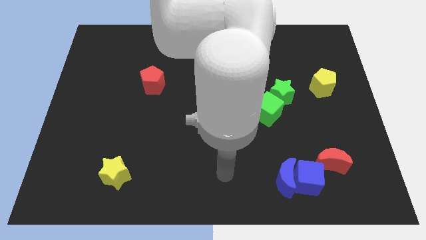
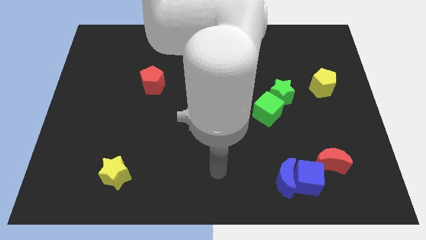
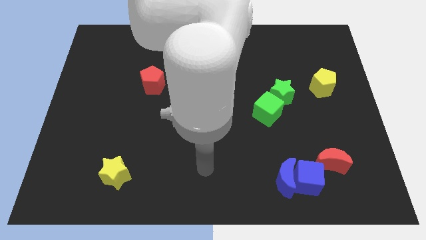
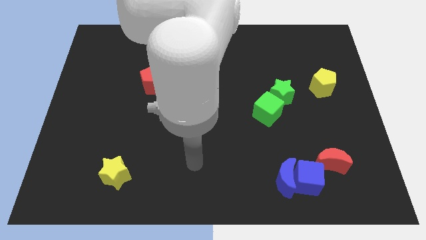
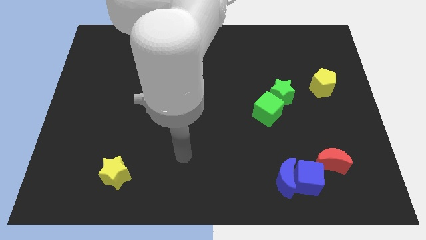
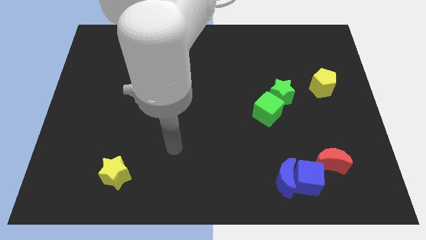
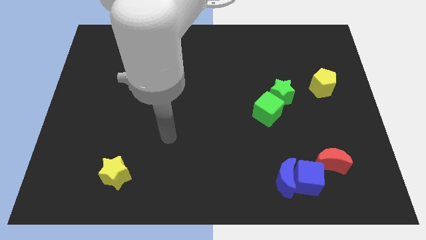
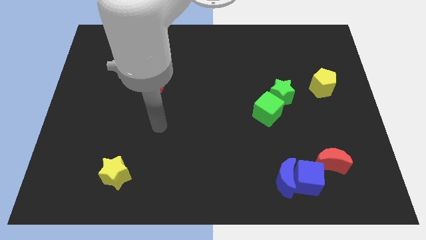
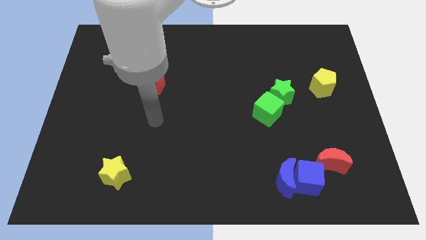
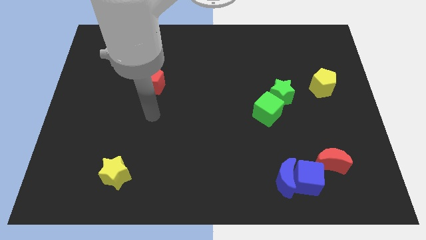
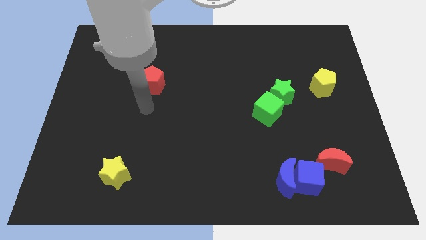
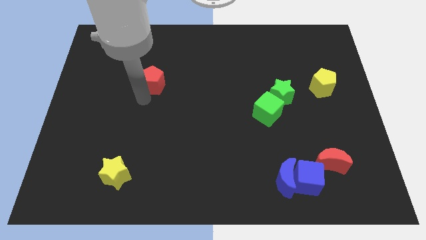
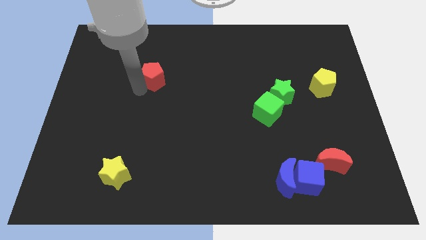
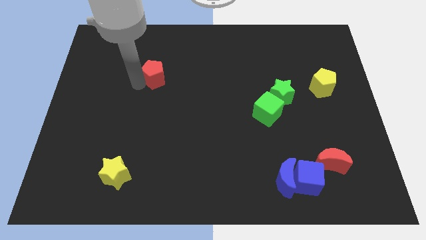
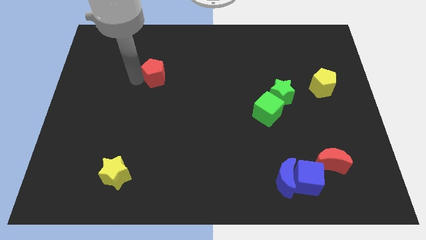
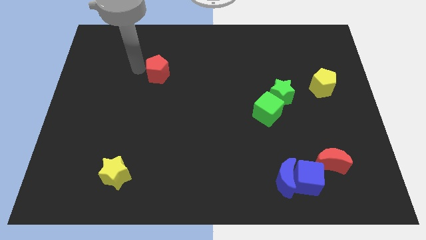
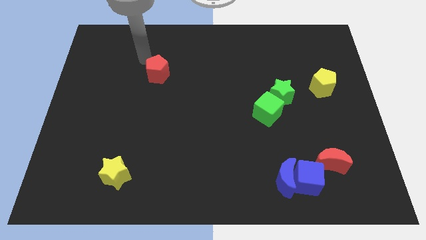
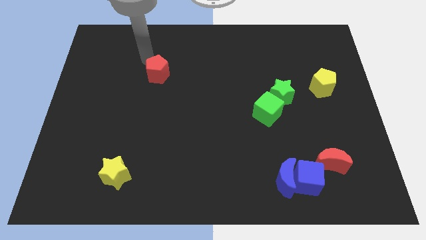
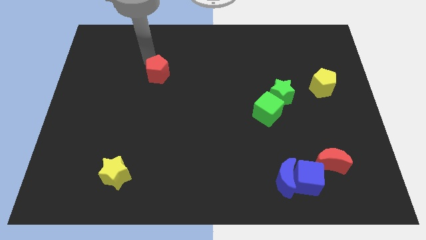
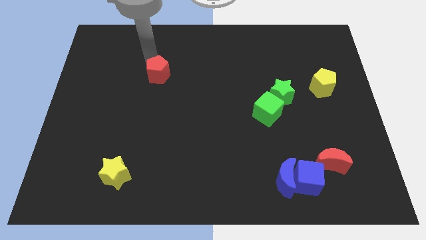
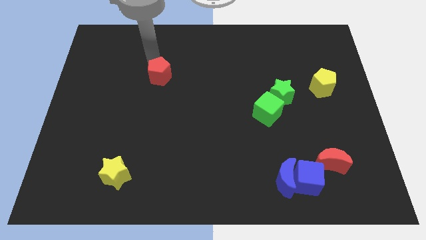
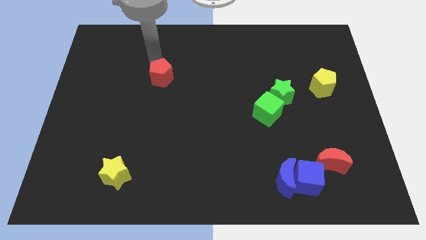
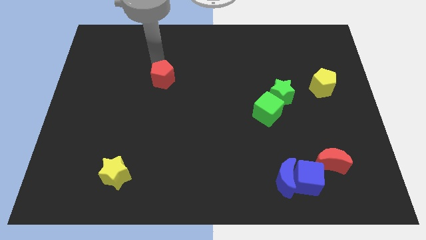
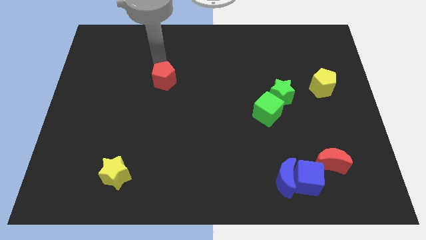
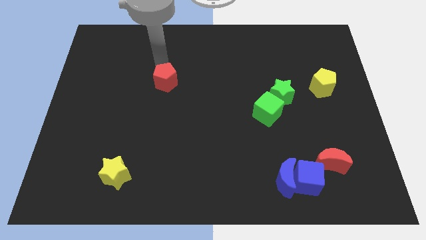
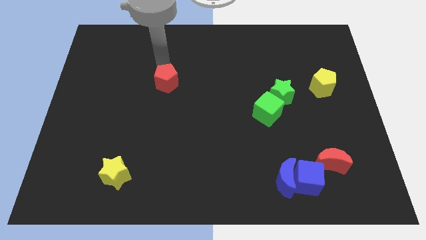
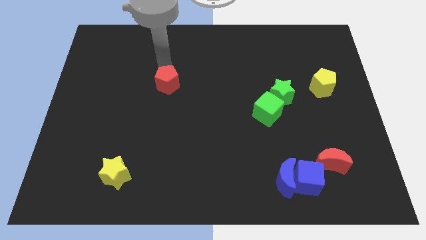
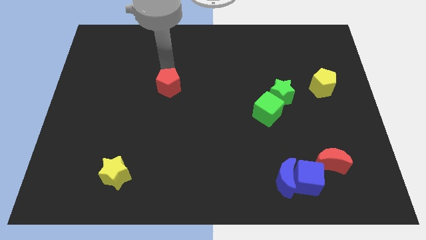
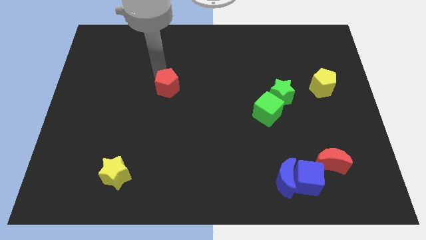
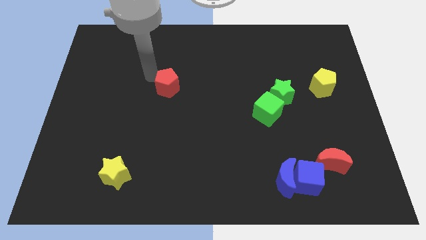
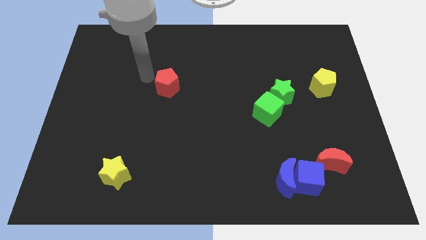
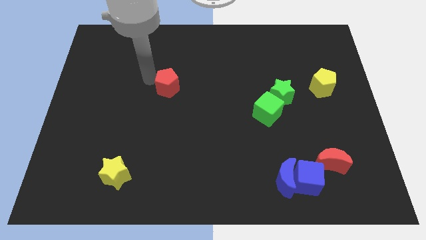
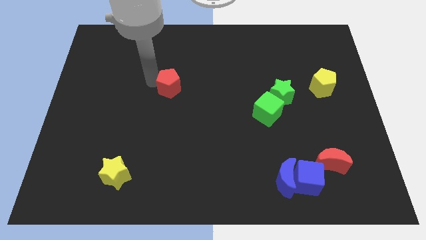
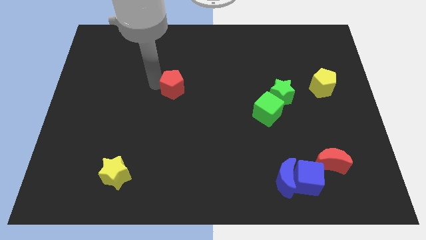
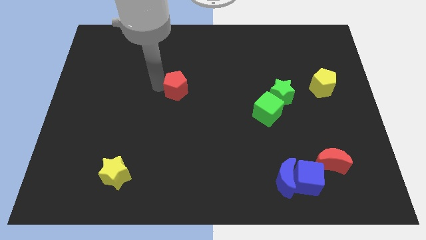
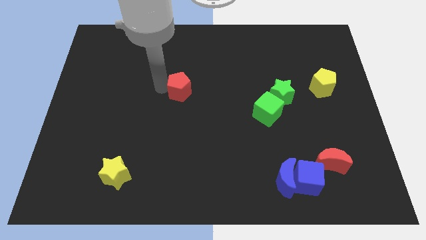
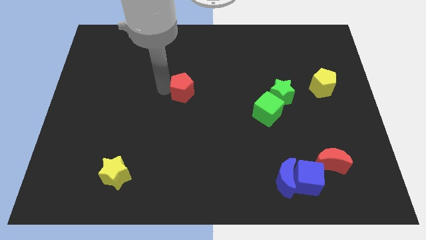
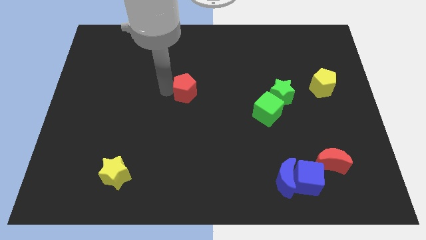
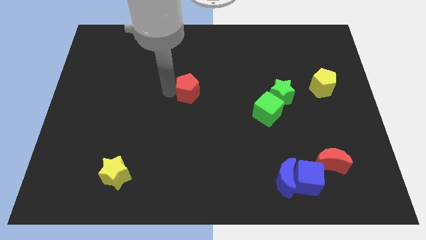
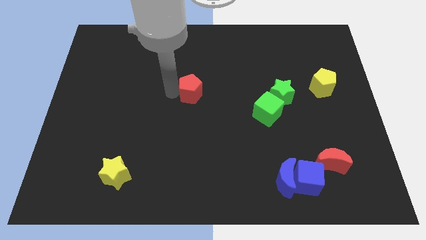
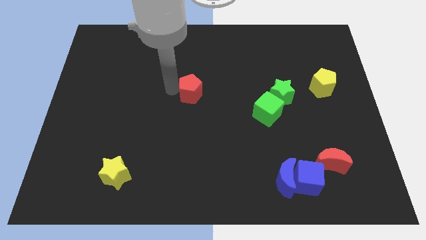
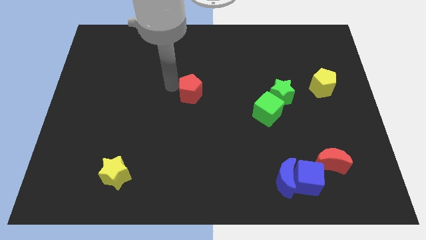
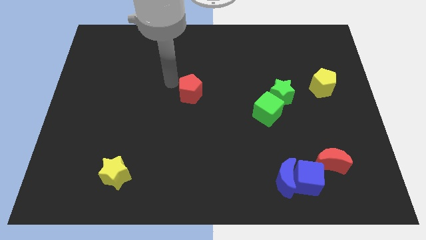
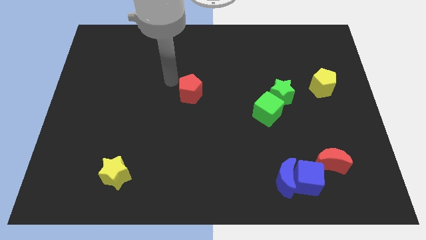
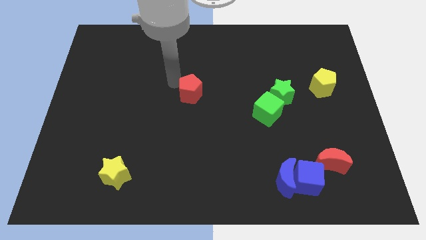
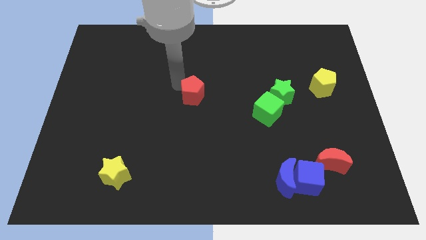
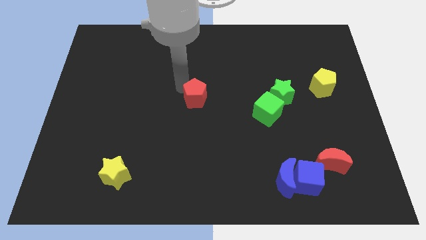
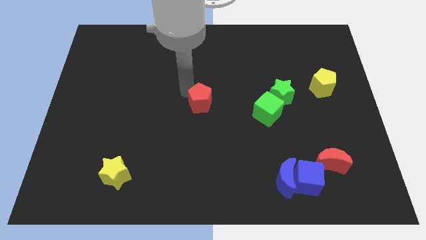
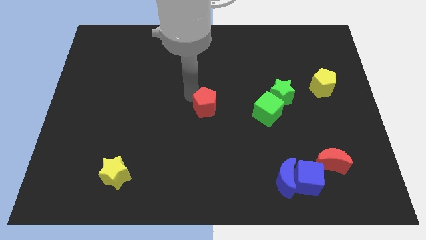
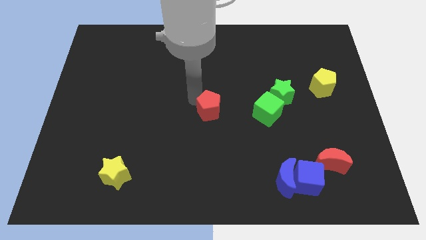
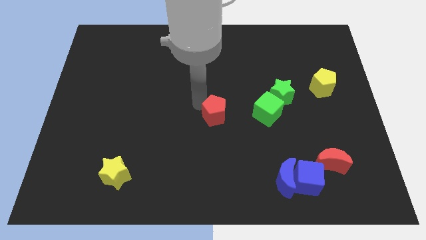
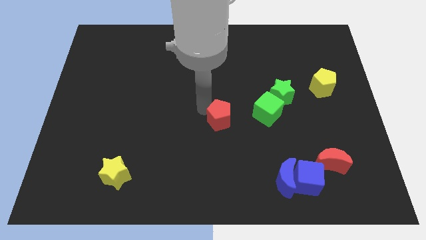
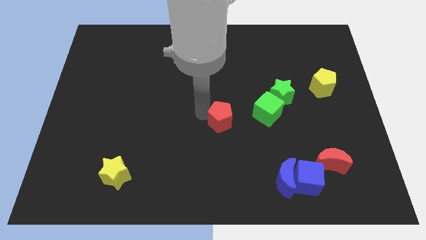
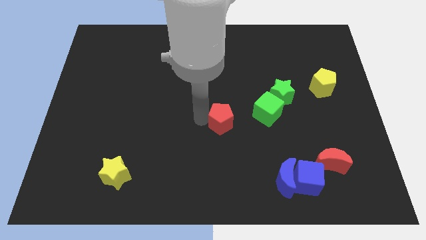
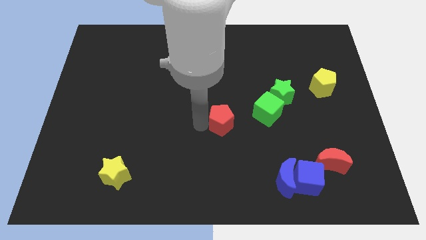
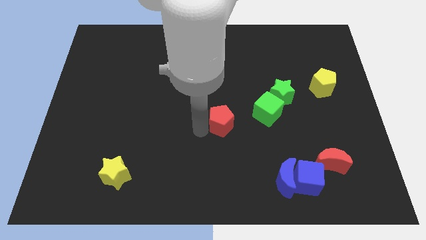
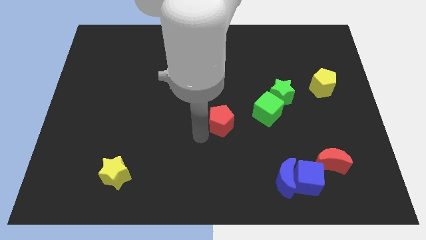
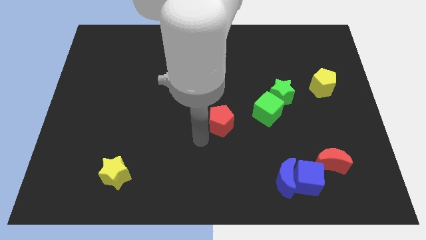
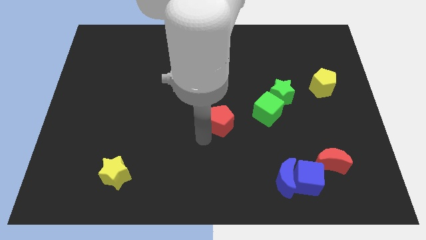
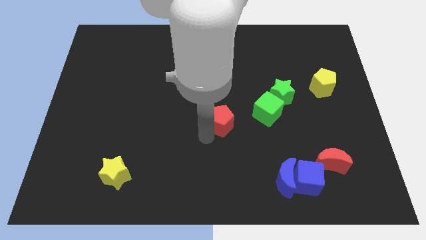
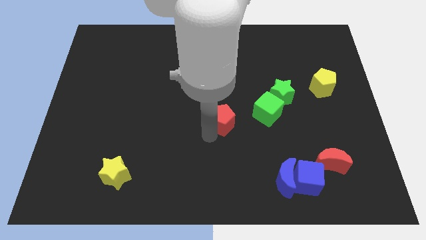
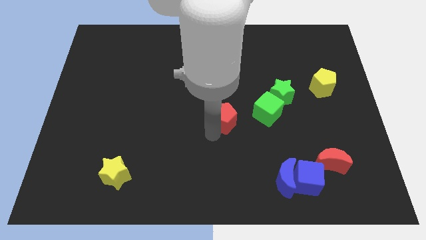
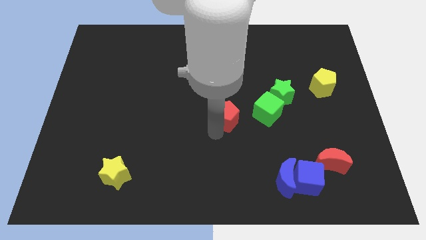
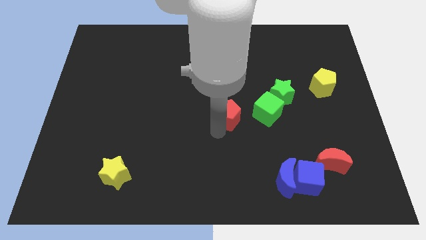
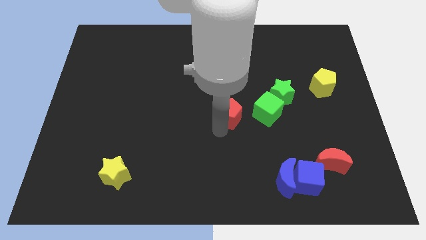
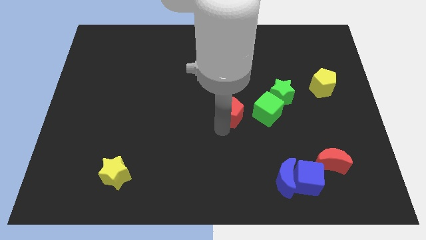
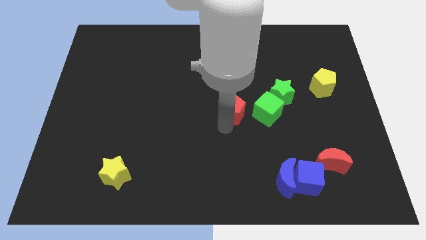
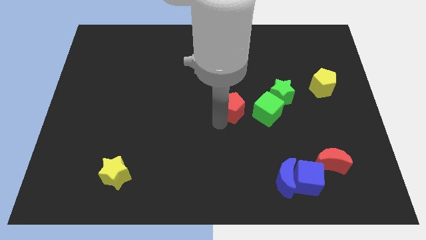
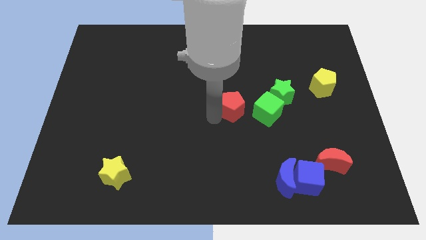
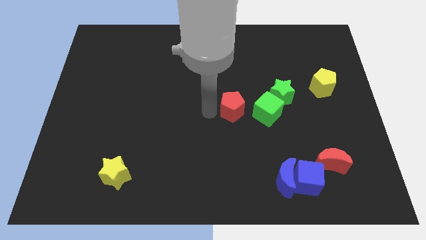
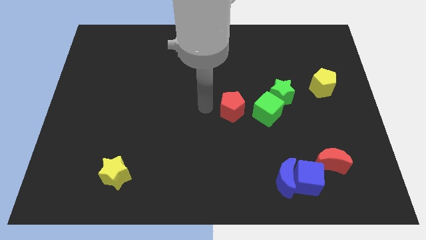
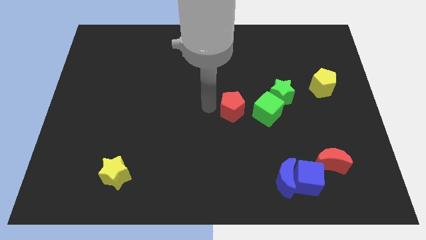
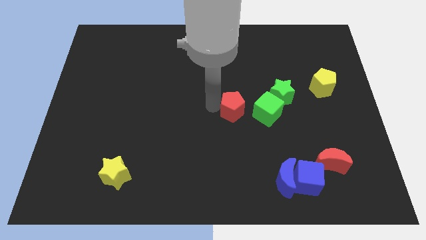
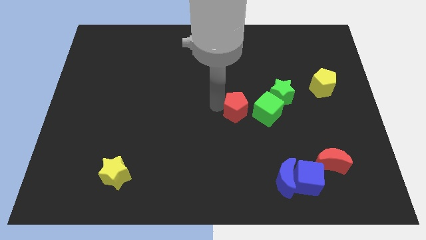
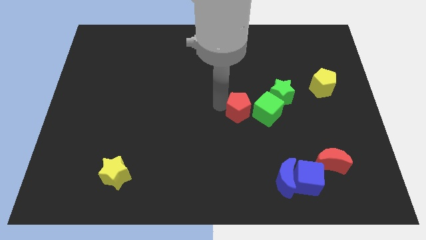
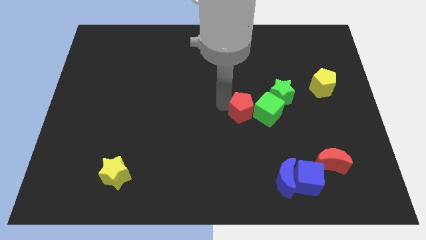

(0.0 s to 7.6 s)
slide the red pentagon to the green cube
